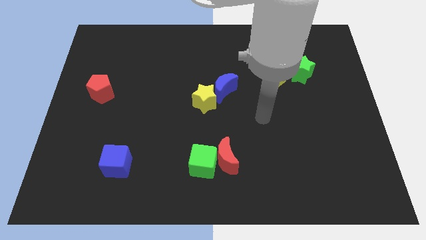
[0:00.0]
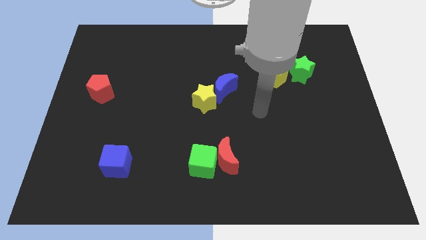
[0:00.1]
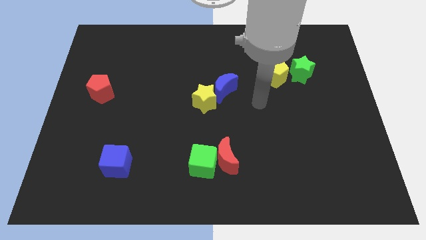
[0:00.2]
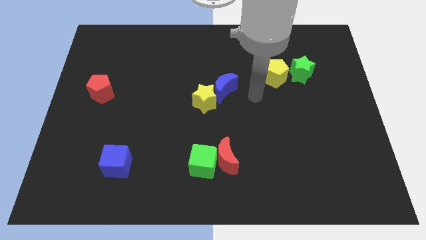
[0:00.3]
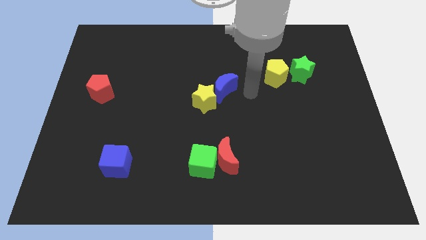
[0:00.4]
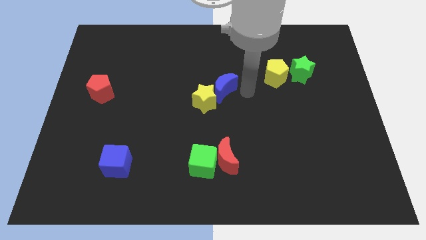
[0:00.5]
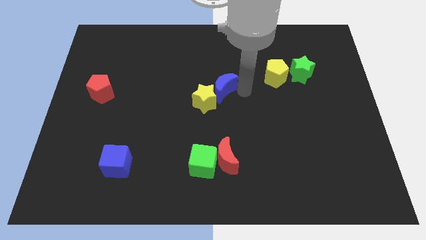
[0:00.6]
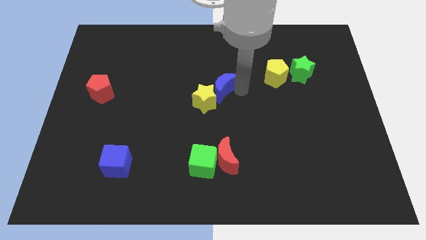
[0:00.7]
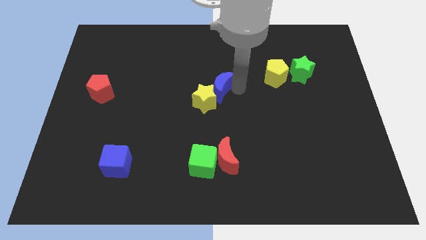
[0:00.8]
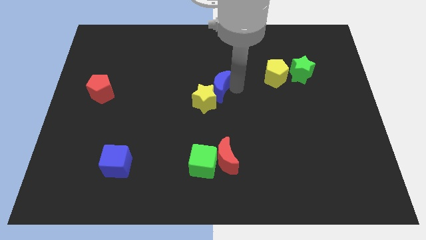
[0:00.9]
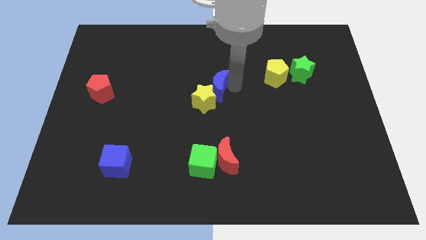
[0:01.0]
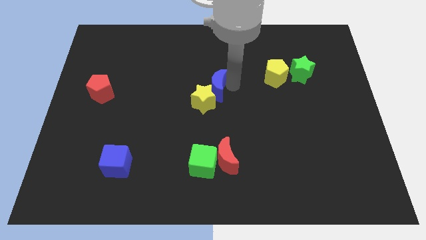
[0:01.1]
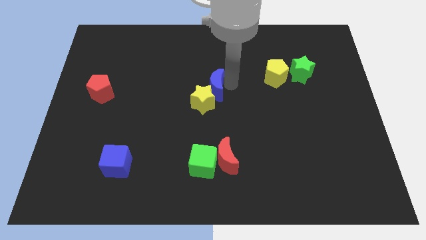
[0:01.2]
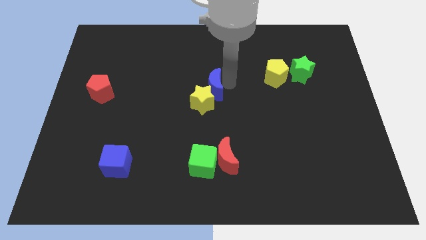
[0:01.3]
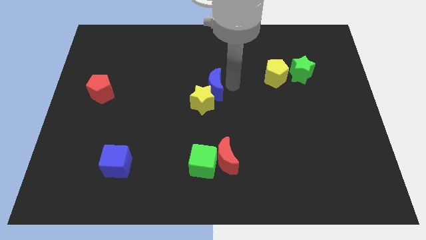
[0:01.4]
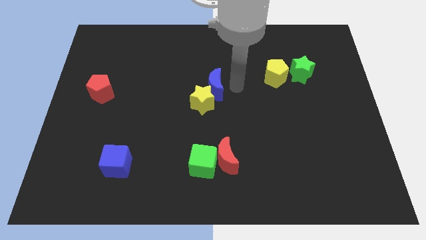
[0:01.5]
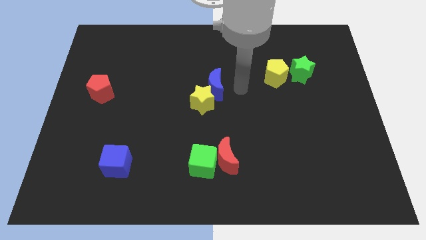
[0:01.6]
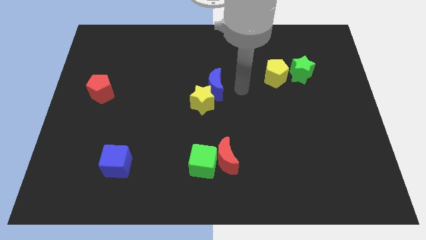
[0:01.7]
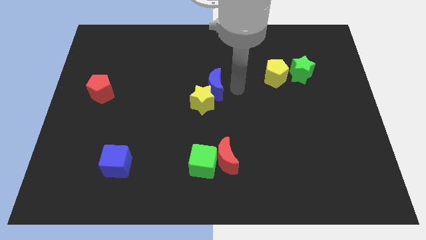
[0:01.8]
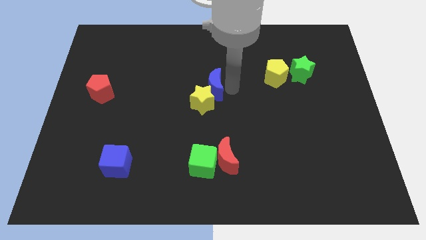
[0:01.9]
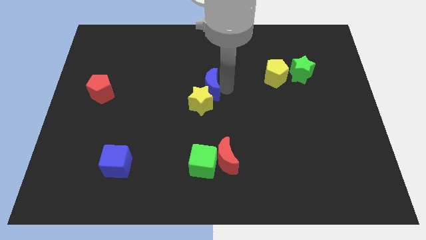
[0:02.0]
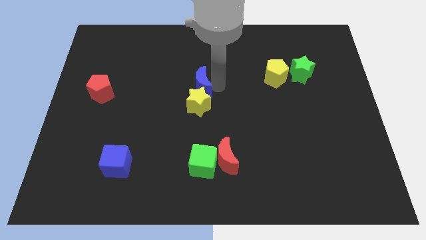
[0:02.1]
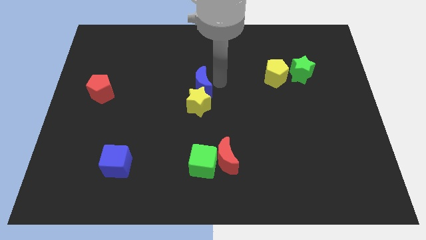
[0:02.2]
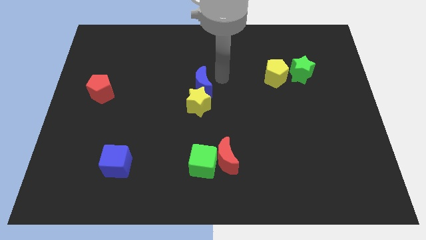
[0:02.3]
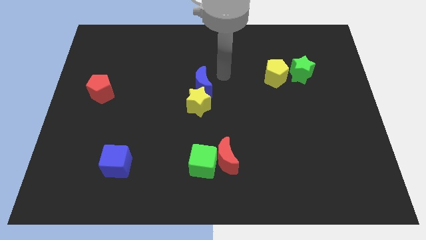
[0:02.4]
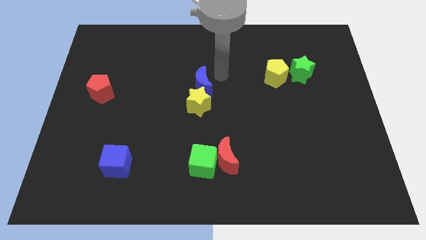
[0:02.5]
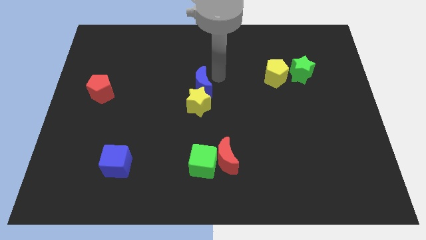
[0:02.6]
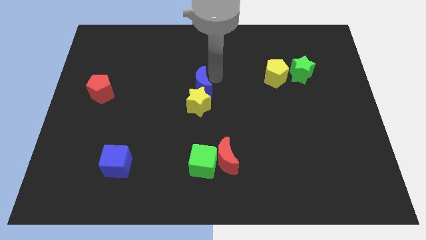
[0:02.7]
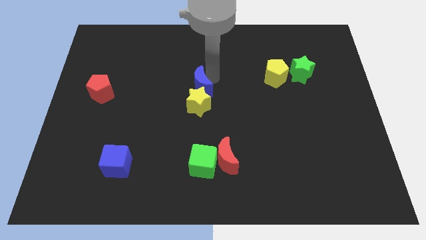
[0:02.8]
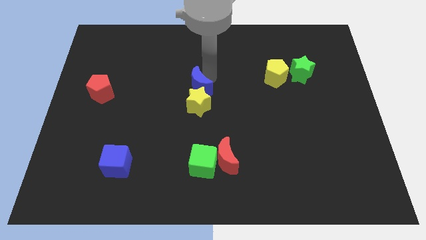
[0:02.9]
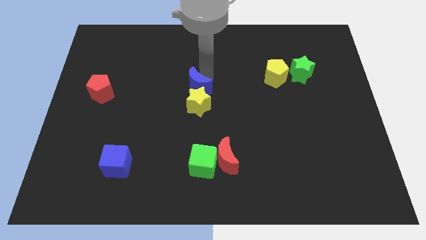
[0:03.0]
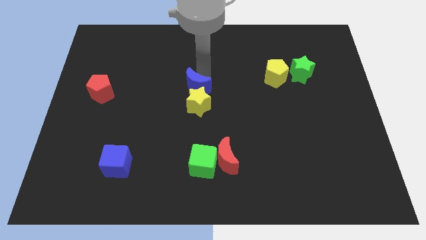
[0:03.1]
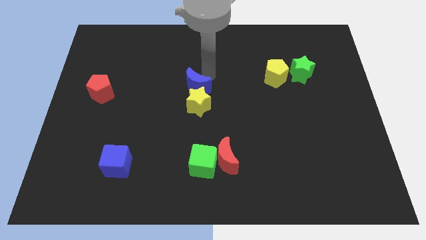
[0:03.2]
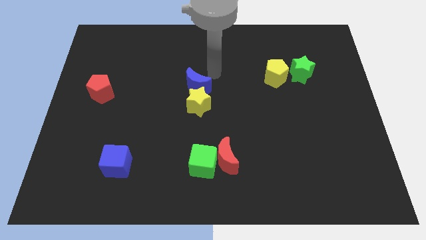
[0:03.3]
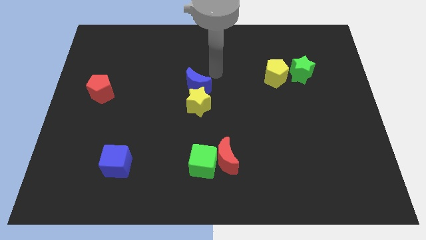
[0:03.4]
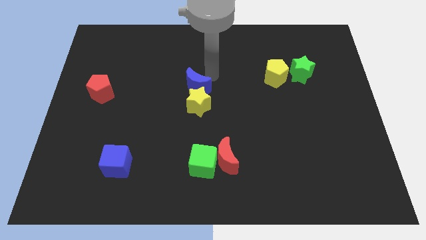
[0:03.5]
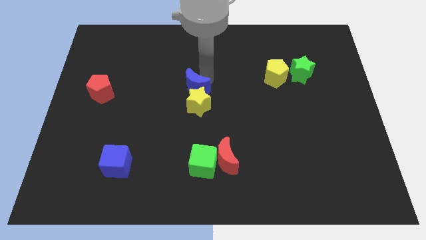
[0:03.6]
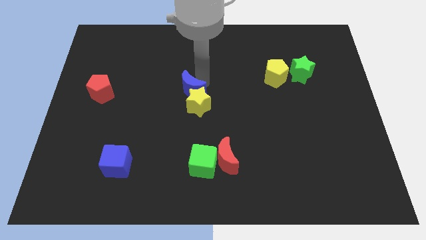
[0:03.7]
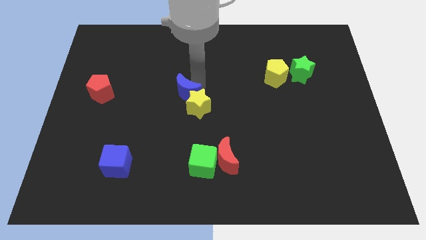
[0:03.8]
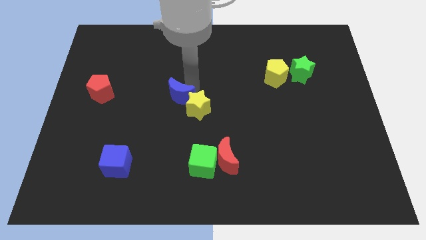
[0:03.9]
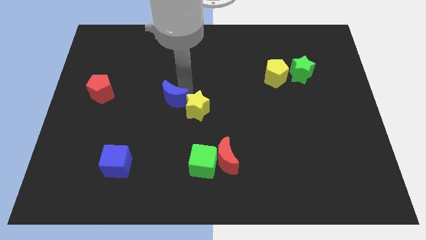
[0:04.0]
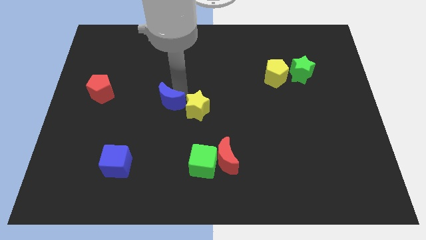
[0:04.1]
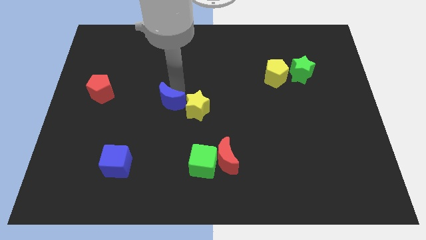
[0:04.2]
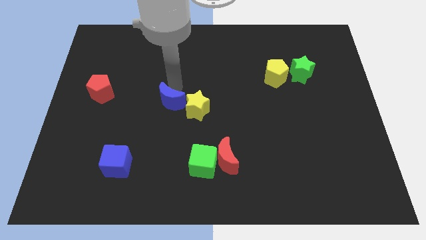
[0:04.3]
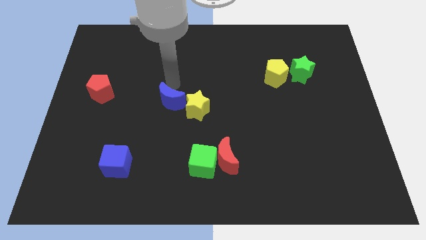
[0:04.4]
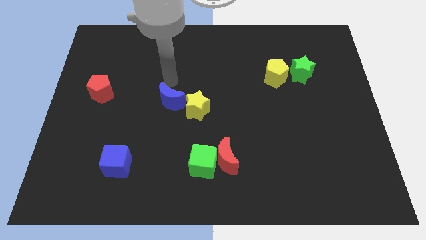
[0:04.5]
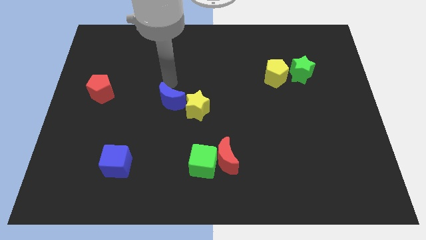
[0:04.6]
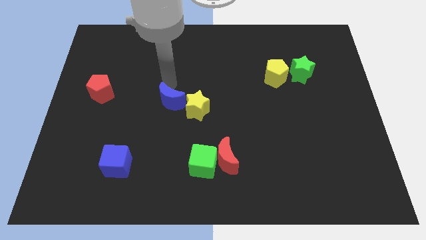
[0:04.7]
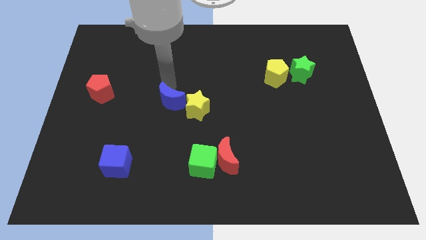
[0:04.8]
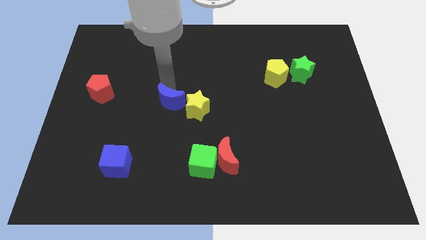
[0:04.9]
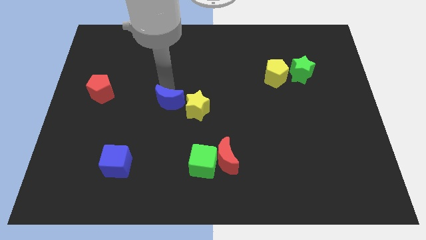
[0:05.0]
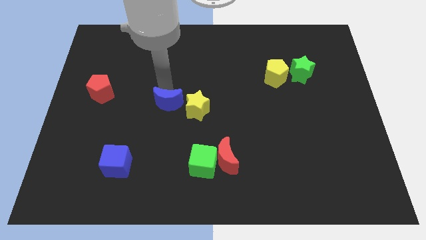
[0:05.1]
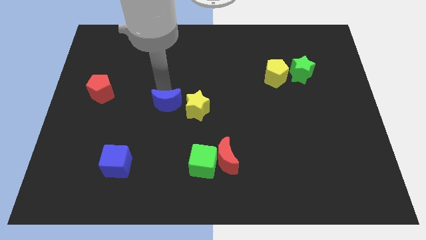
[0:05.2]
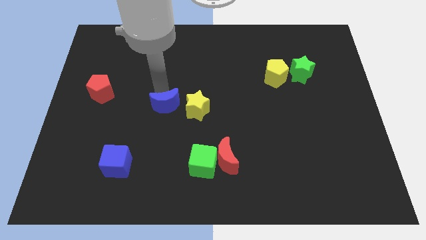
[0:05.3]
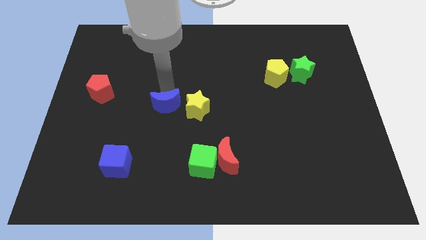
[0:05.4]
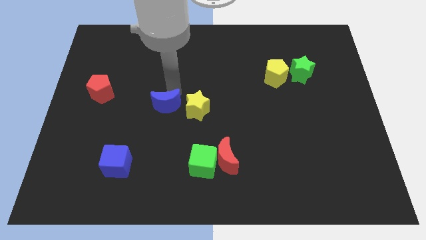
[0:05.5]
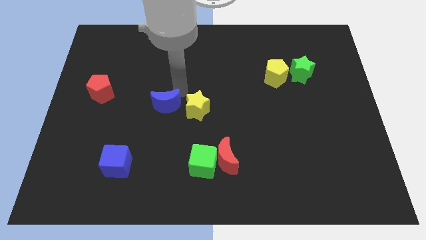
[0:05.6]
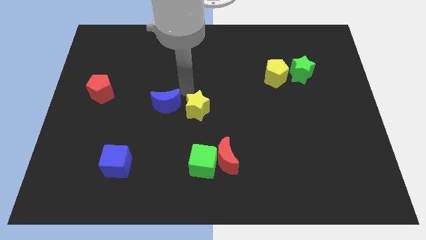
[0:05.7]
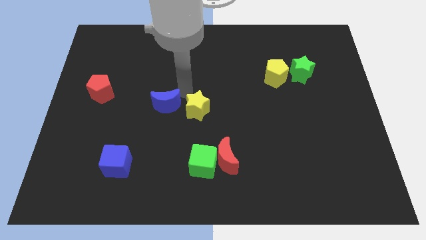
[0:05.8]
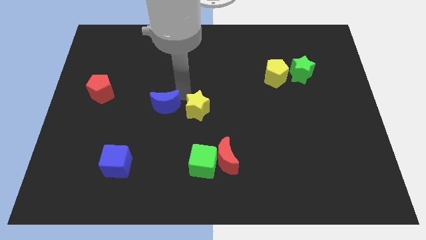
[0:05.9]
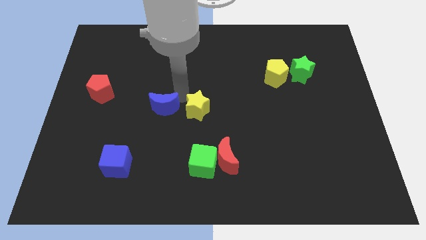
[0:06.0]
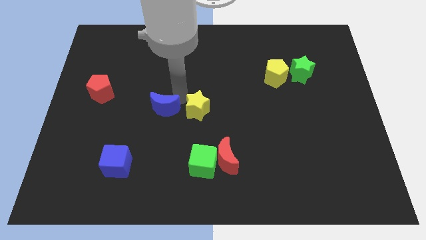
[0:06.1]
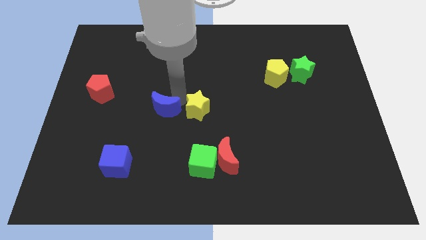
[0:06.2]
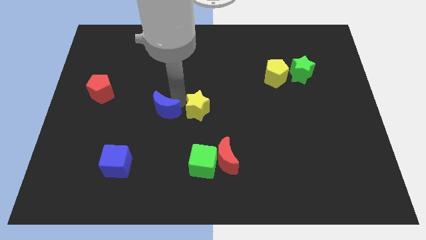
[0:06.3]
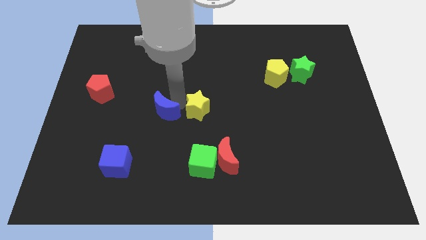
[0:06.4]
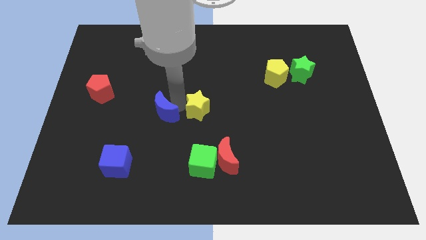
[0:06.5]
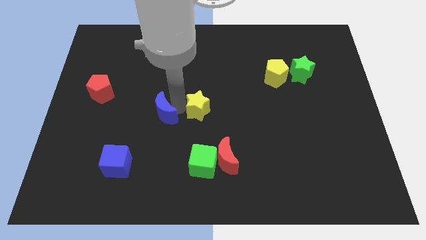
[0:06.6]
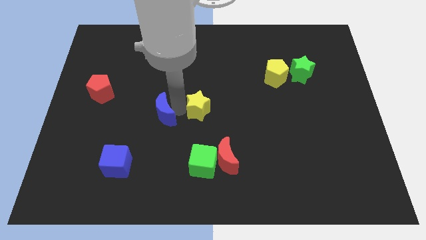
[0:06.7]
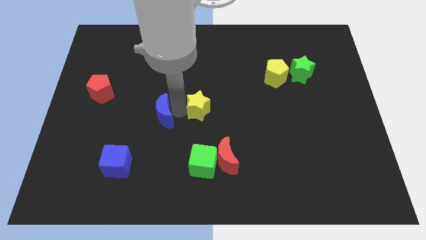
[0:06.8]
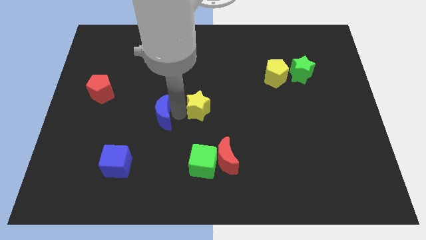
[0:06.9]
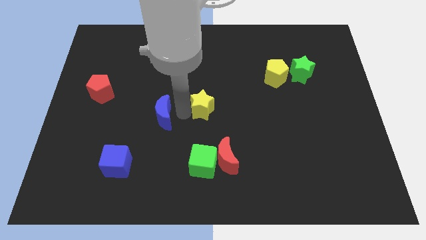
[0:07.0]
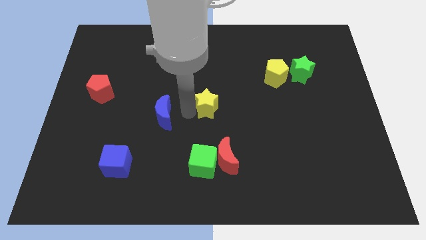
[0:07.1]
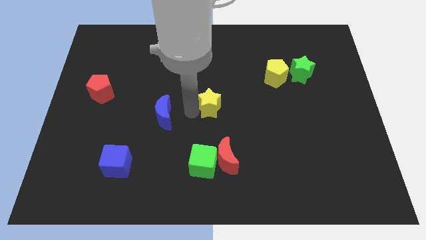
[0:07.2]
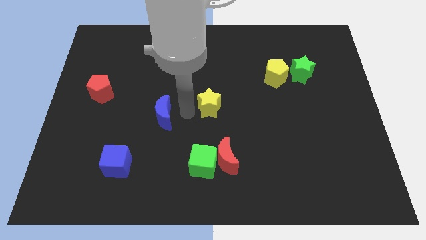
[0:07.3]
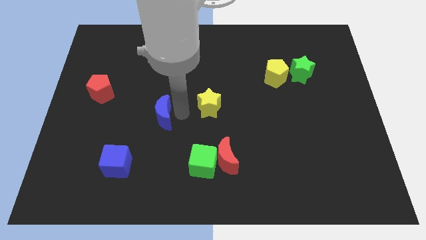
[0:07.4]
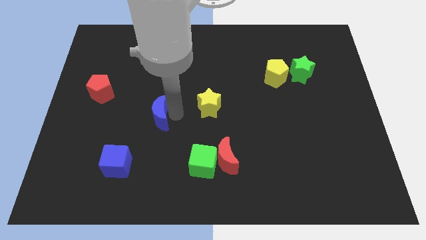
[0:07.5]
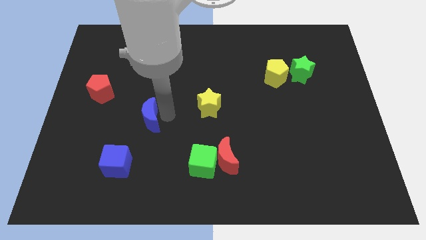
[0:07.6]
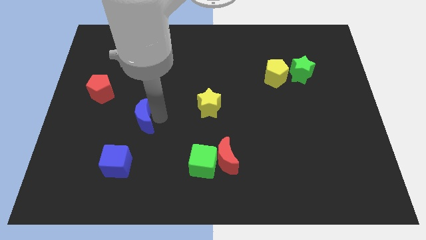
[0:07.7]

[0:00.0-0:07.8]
move the blue moon above the blue cube
